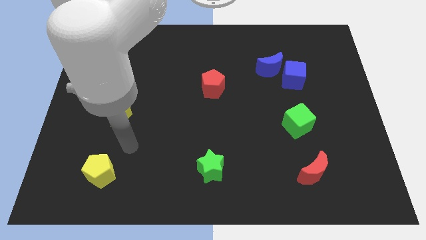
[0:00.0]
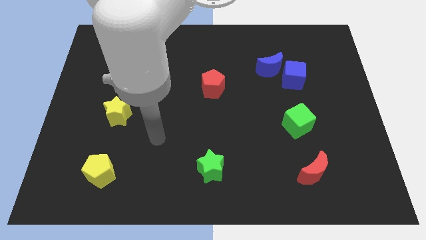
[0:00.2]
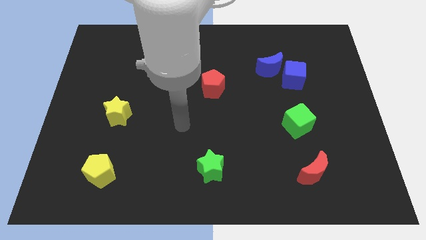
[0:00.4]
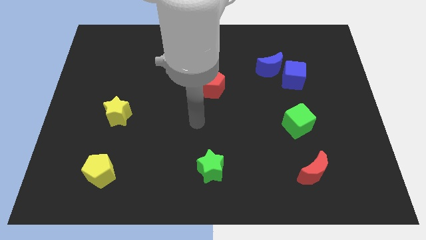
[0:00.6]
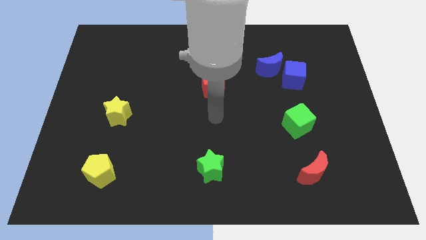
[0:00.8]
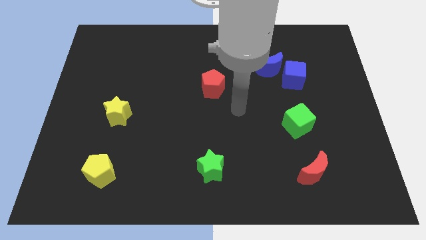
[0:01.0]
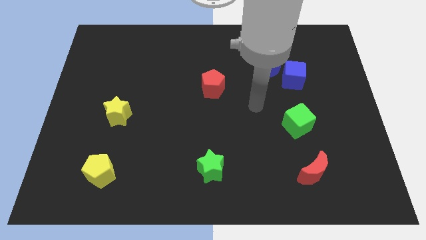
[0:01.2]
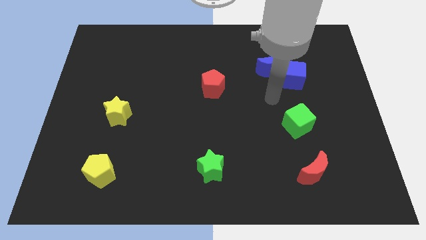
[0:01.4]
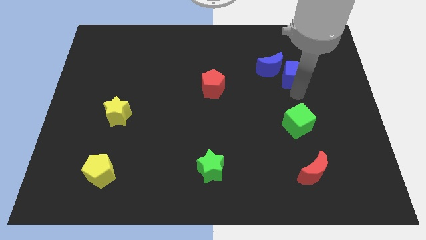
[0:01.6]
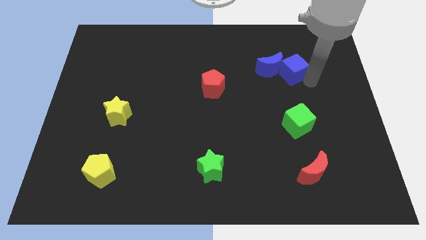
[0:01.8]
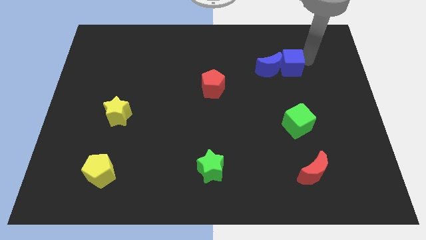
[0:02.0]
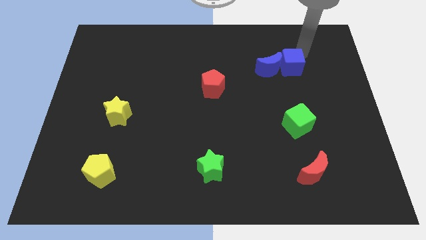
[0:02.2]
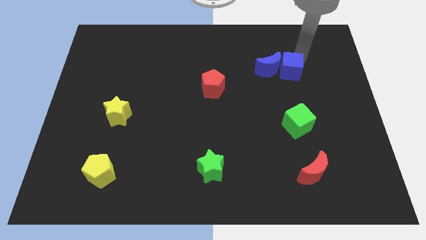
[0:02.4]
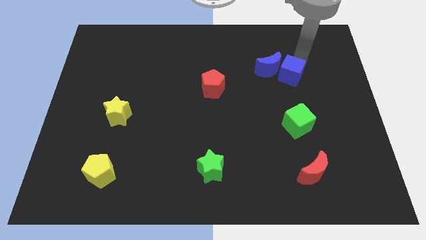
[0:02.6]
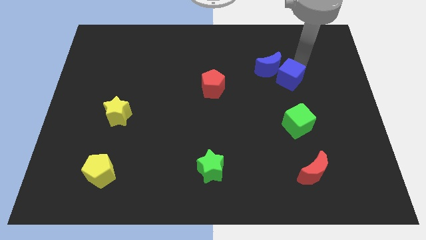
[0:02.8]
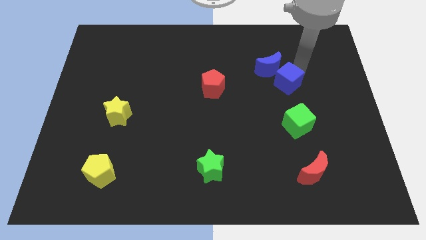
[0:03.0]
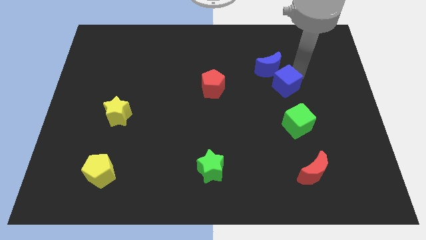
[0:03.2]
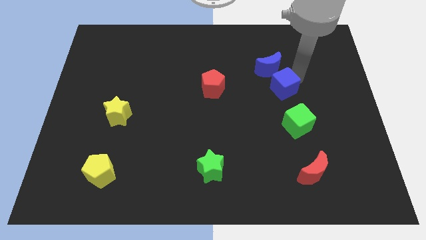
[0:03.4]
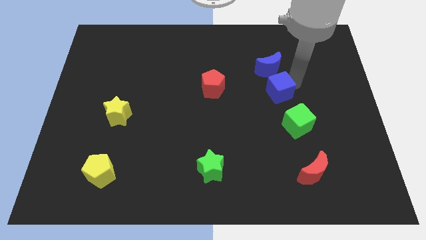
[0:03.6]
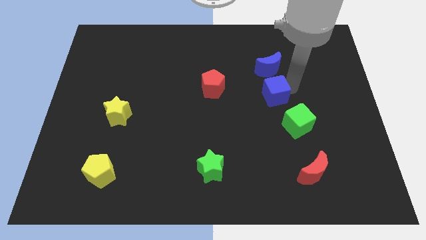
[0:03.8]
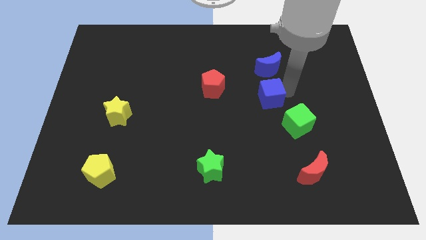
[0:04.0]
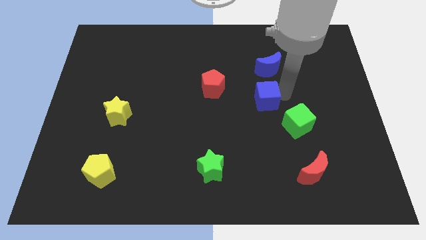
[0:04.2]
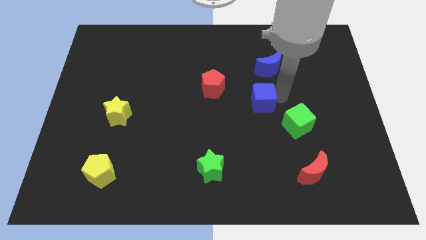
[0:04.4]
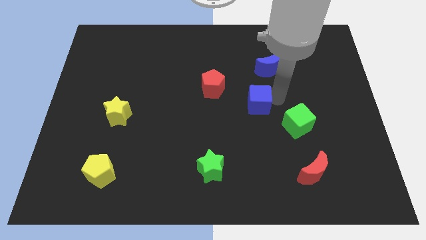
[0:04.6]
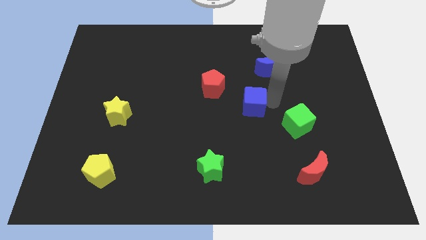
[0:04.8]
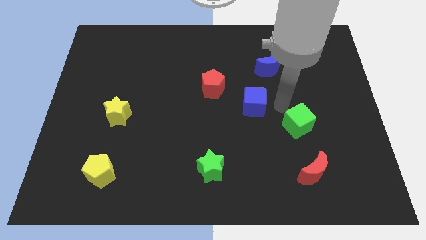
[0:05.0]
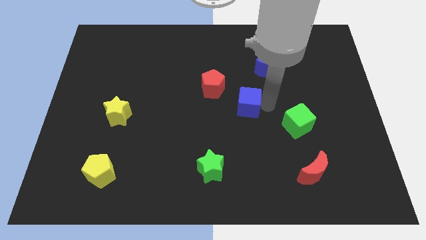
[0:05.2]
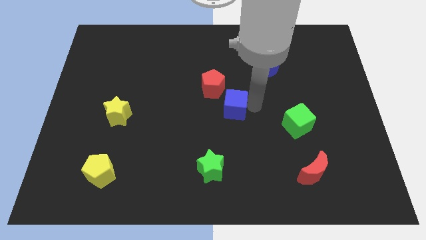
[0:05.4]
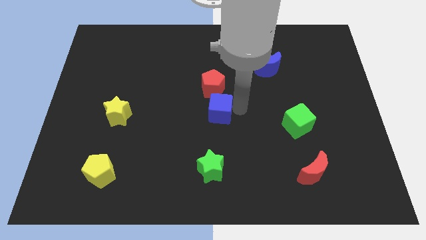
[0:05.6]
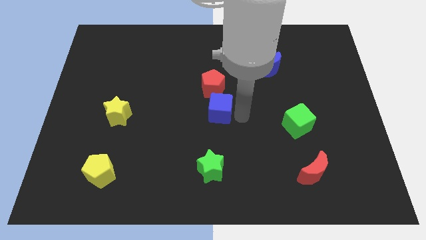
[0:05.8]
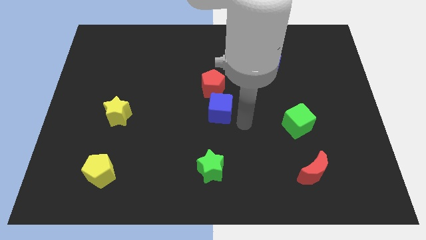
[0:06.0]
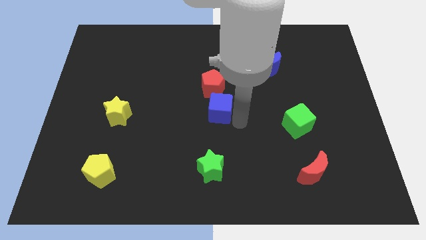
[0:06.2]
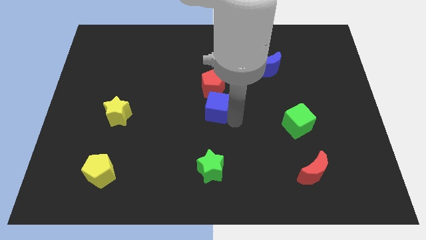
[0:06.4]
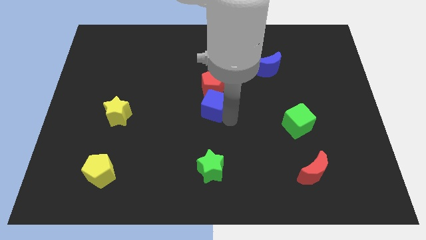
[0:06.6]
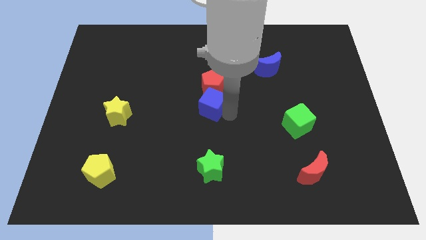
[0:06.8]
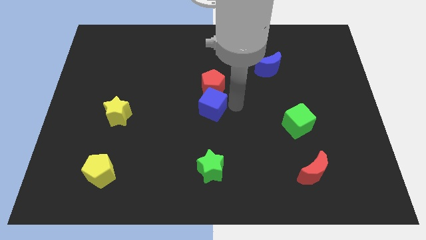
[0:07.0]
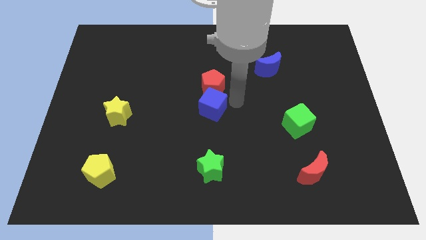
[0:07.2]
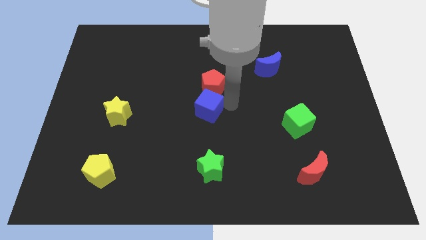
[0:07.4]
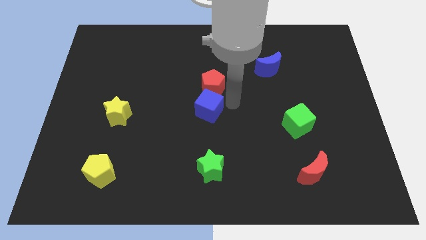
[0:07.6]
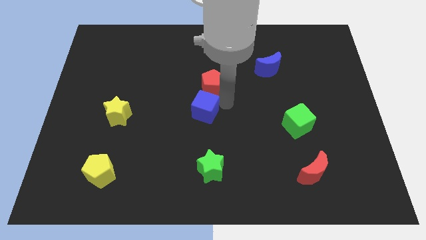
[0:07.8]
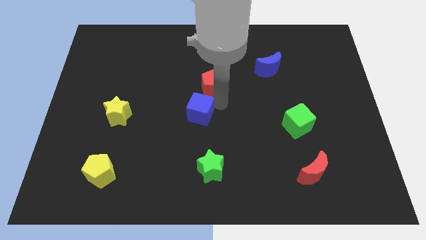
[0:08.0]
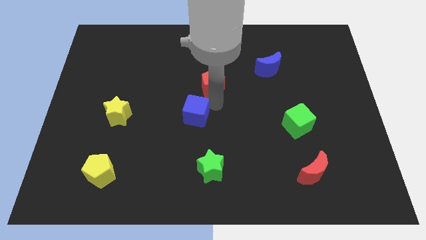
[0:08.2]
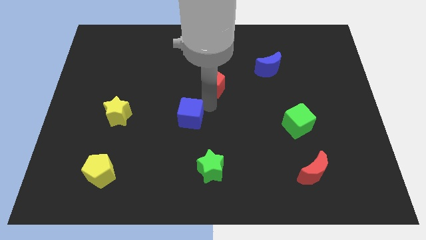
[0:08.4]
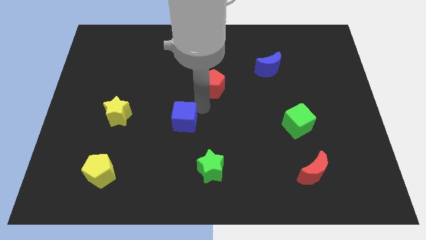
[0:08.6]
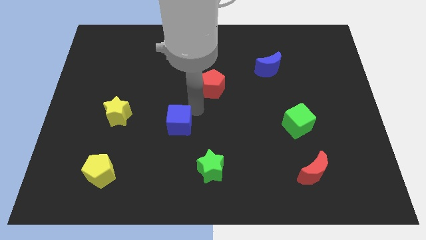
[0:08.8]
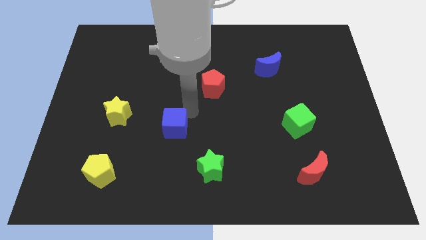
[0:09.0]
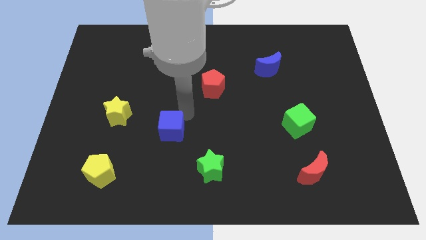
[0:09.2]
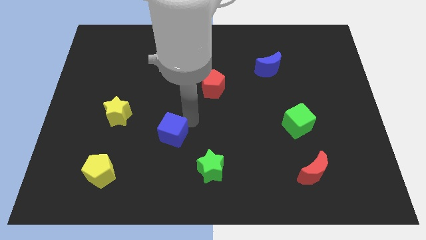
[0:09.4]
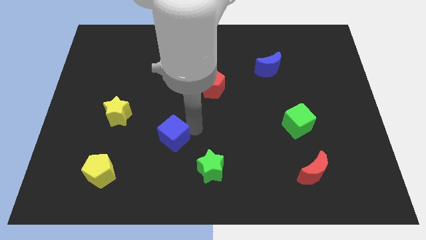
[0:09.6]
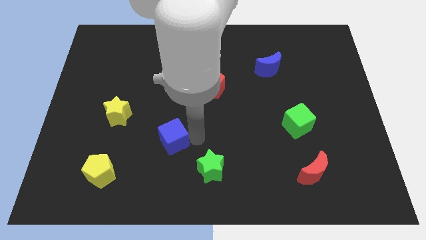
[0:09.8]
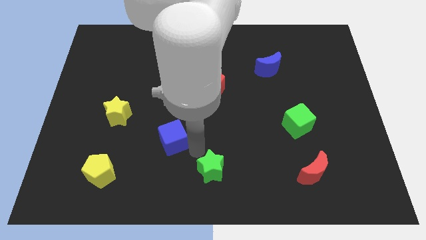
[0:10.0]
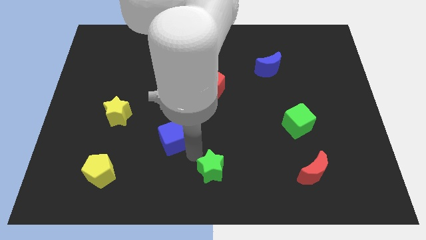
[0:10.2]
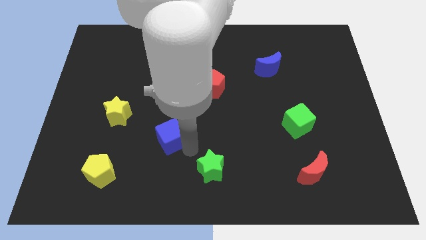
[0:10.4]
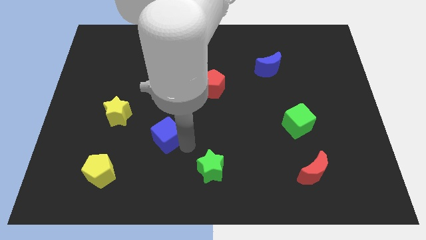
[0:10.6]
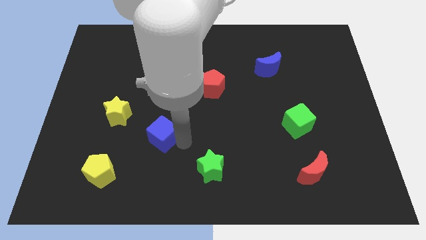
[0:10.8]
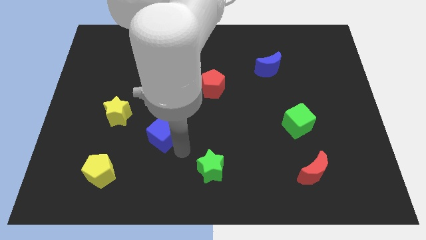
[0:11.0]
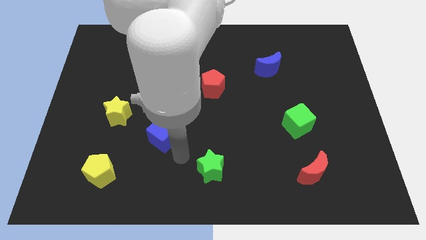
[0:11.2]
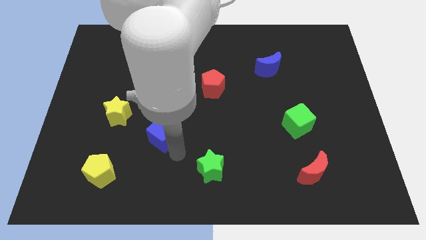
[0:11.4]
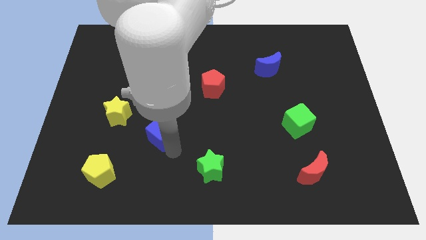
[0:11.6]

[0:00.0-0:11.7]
slide the blue cube to the bottom right of the yellow star

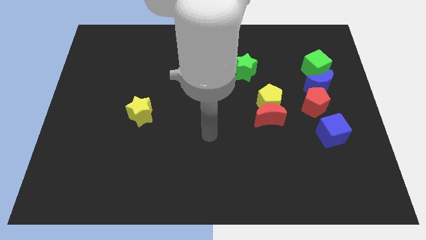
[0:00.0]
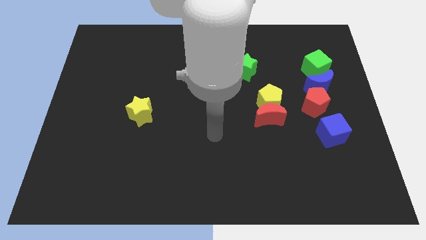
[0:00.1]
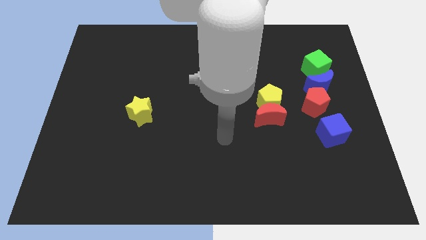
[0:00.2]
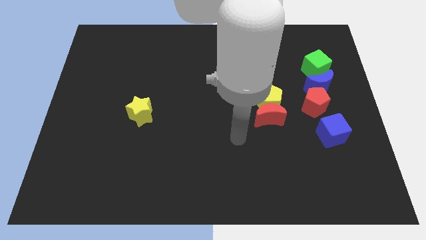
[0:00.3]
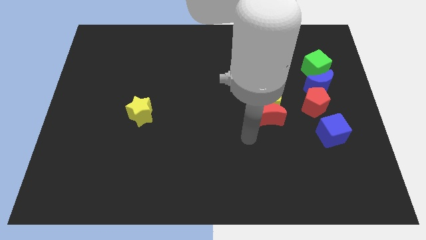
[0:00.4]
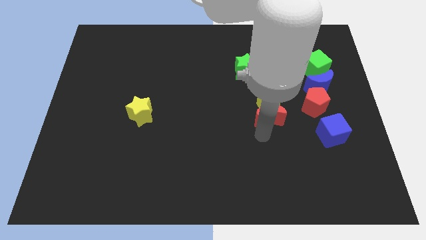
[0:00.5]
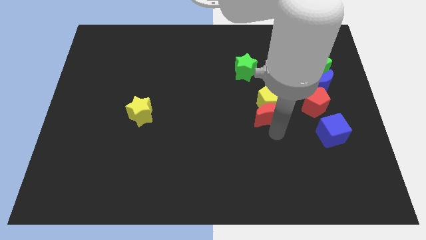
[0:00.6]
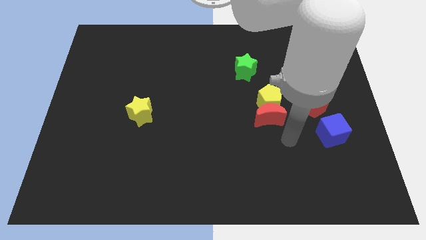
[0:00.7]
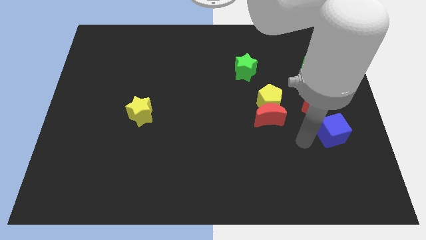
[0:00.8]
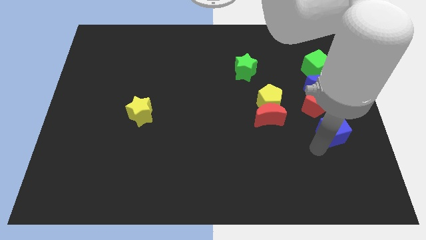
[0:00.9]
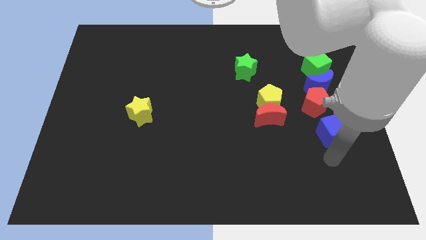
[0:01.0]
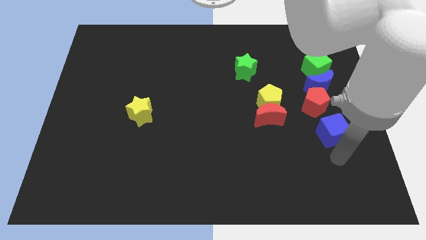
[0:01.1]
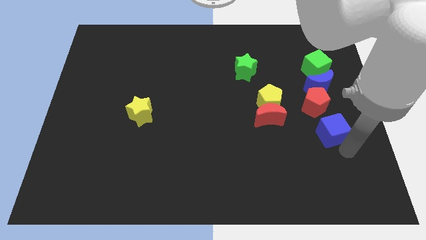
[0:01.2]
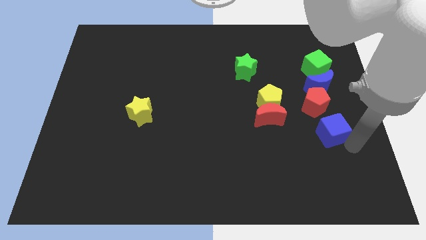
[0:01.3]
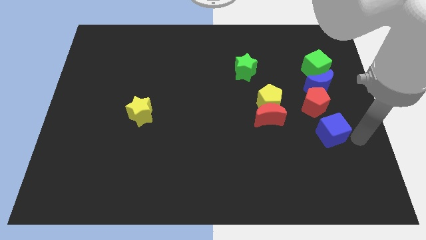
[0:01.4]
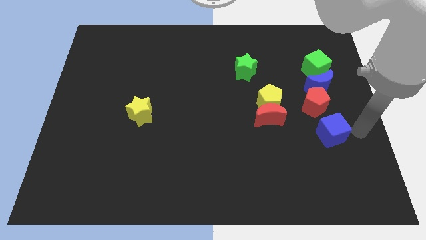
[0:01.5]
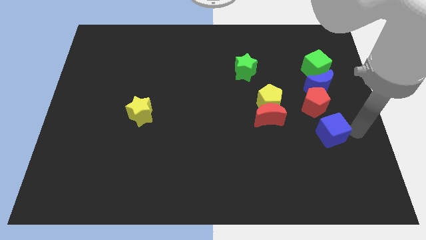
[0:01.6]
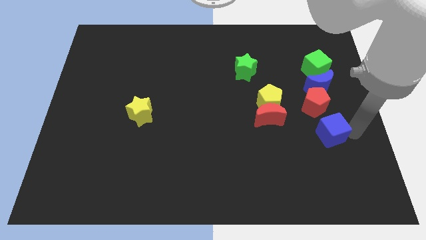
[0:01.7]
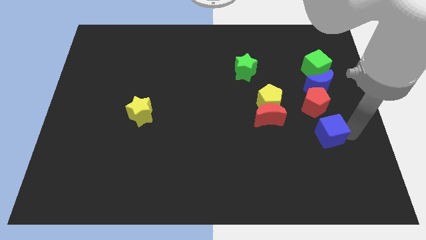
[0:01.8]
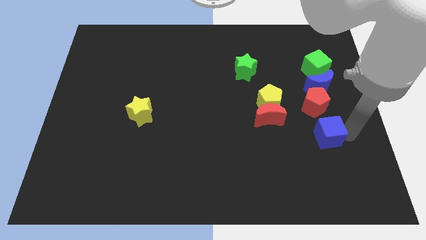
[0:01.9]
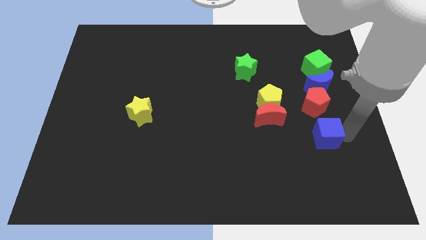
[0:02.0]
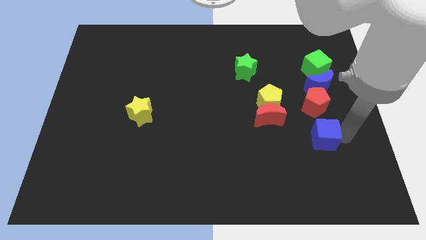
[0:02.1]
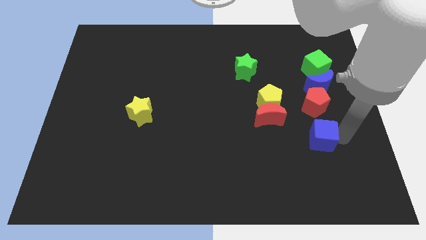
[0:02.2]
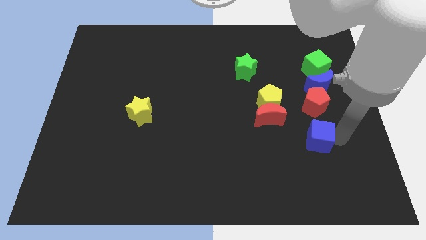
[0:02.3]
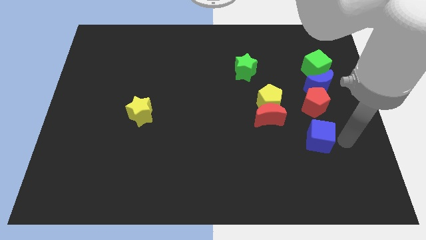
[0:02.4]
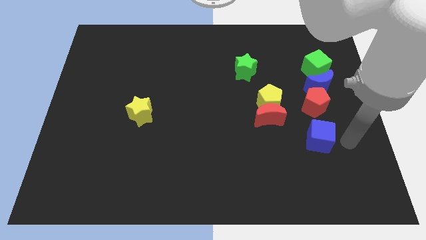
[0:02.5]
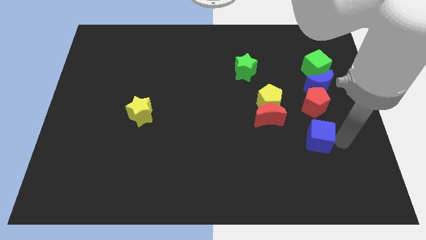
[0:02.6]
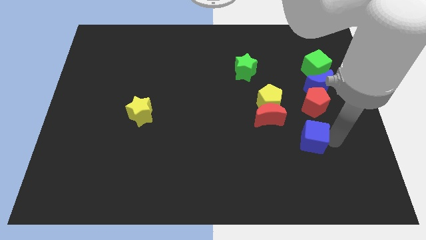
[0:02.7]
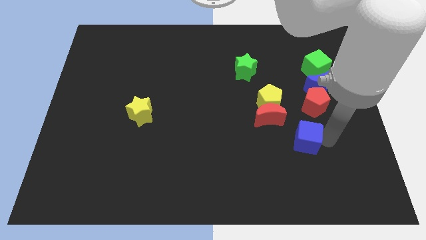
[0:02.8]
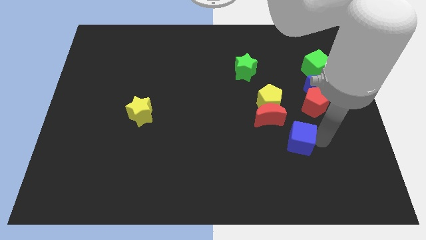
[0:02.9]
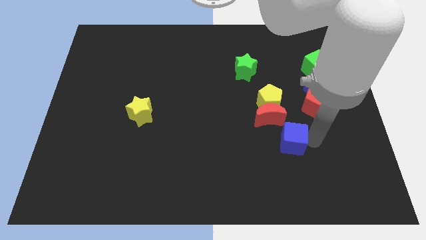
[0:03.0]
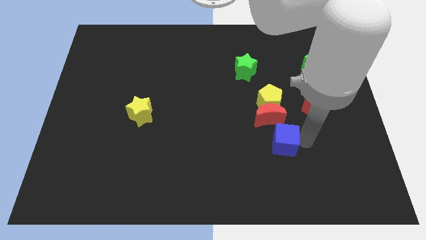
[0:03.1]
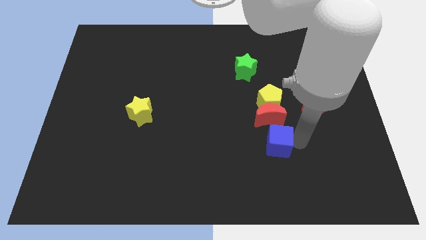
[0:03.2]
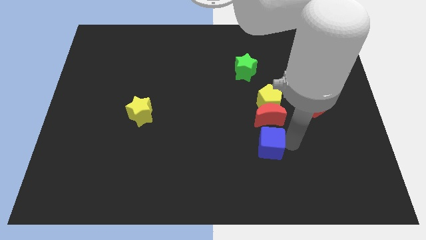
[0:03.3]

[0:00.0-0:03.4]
slide the blue cube to the bottom left of the red moon
